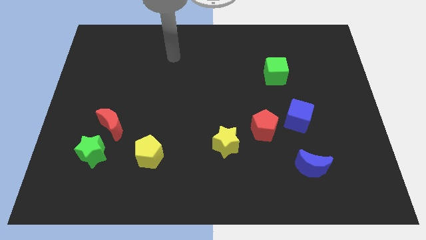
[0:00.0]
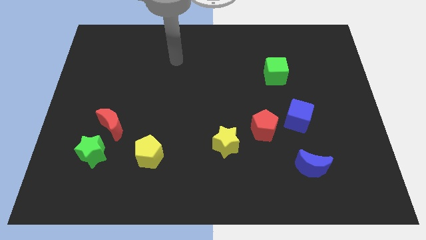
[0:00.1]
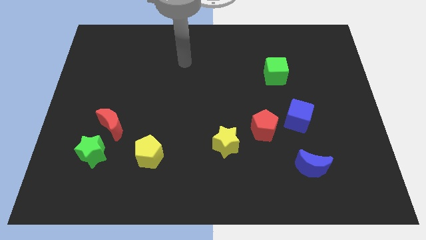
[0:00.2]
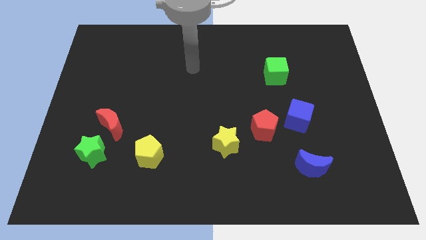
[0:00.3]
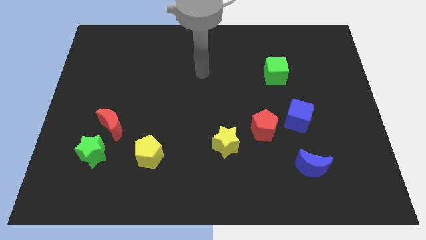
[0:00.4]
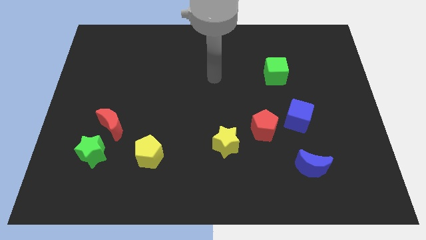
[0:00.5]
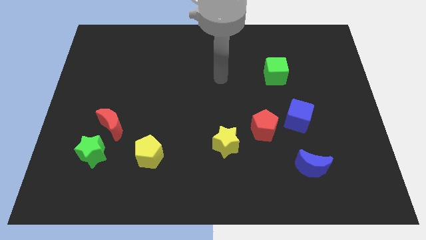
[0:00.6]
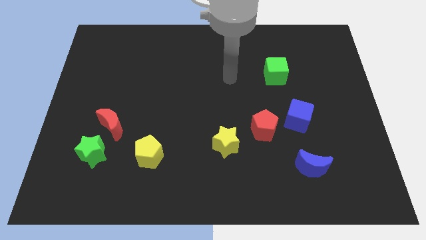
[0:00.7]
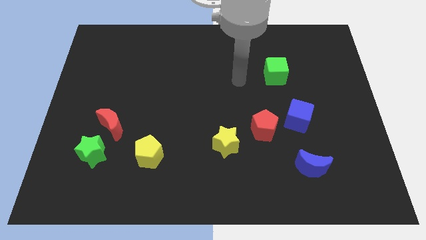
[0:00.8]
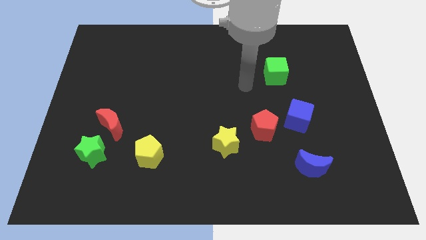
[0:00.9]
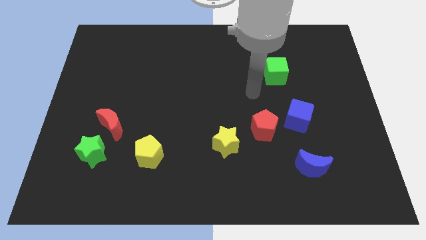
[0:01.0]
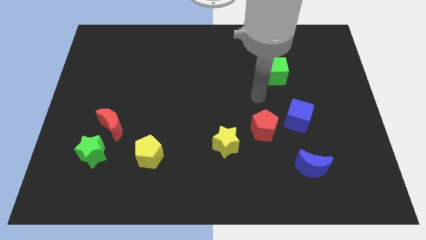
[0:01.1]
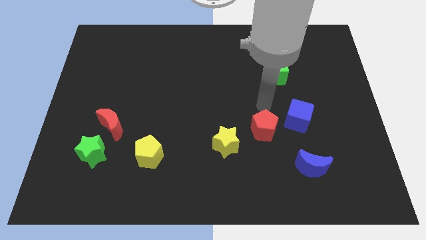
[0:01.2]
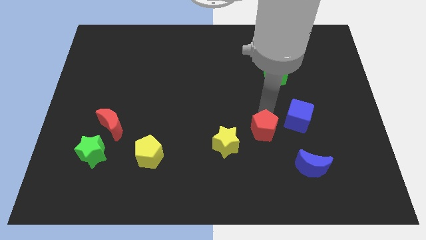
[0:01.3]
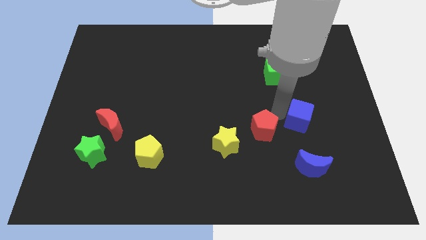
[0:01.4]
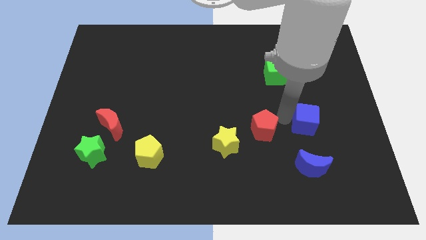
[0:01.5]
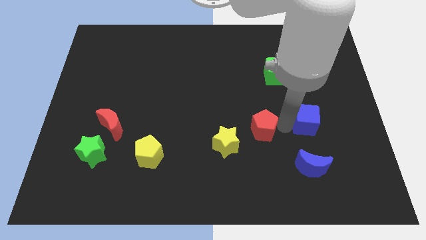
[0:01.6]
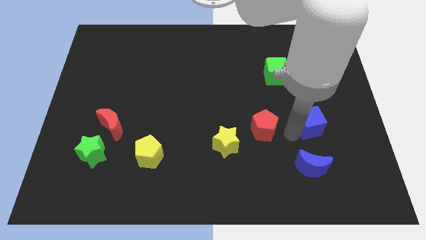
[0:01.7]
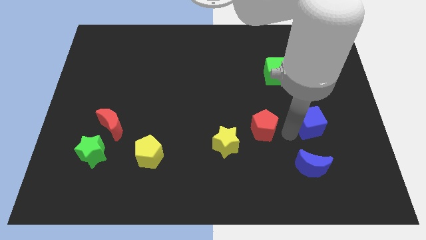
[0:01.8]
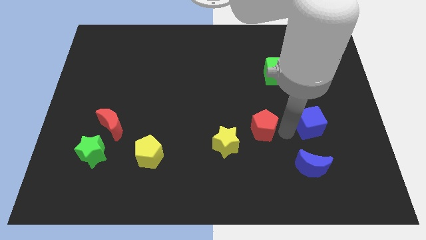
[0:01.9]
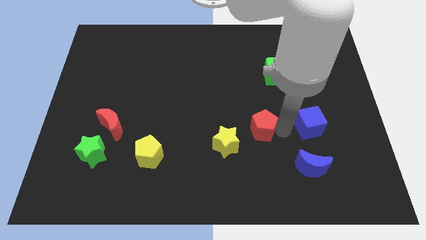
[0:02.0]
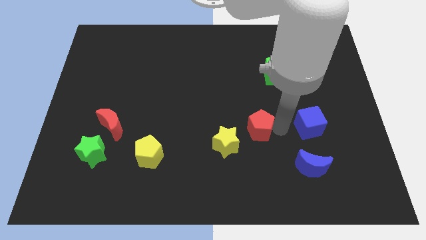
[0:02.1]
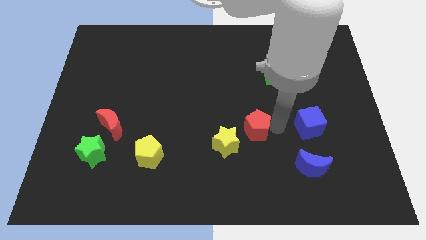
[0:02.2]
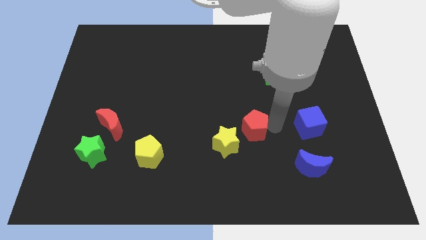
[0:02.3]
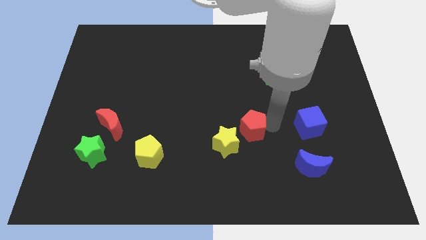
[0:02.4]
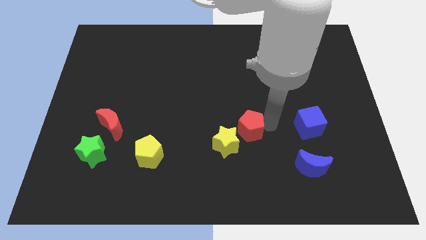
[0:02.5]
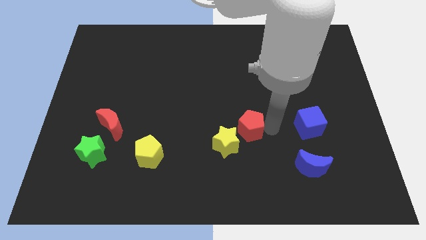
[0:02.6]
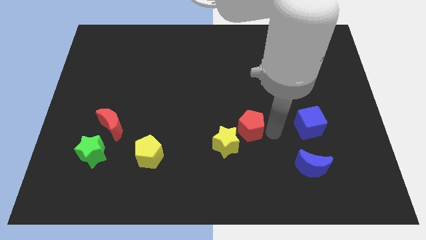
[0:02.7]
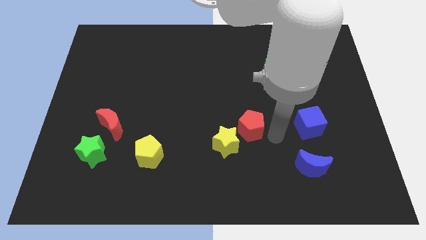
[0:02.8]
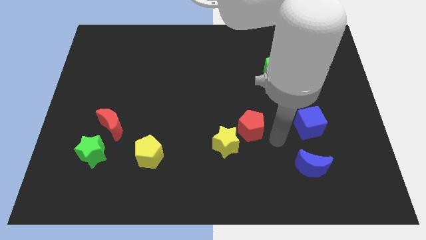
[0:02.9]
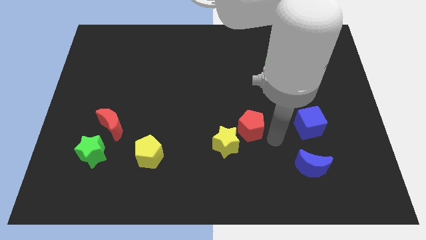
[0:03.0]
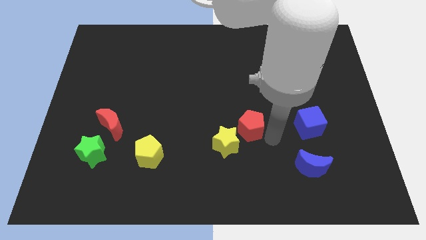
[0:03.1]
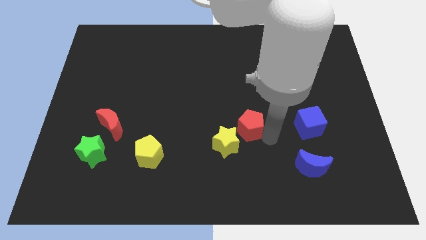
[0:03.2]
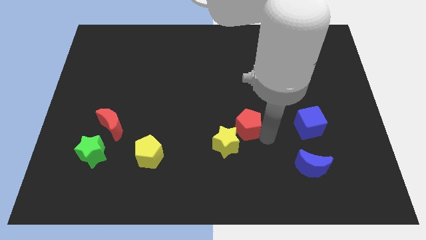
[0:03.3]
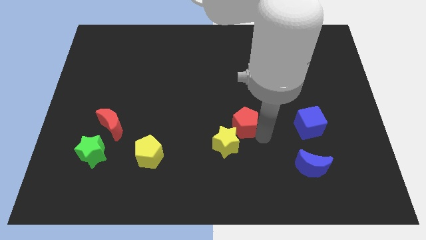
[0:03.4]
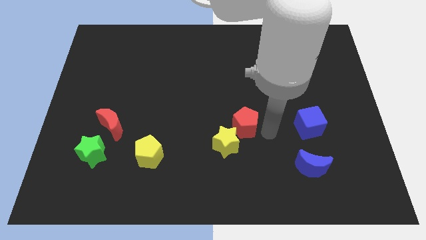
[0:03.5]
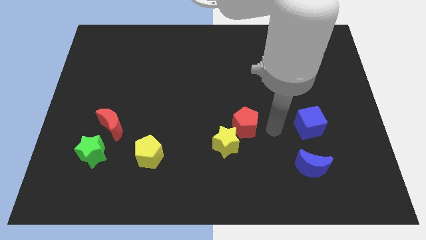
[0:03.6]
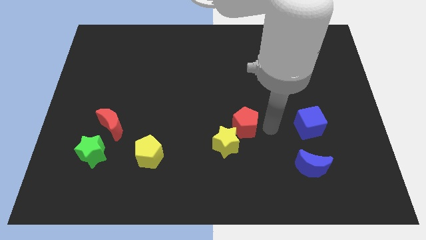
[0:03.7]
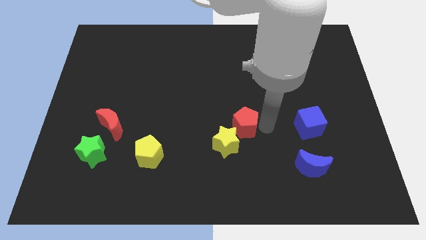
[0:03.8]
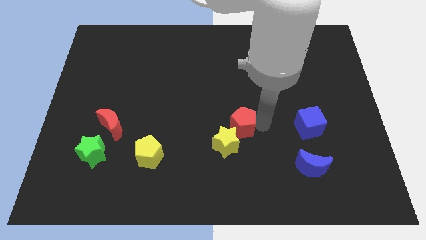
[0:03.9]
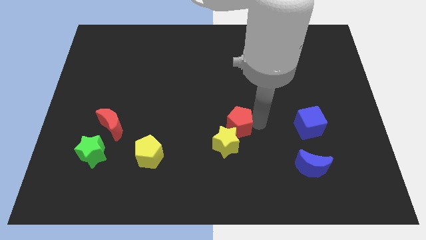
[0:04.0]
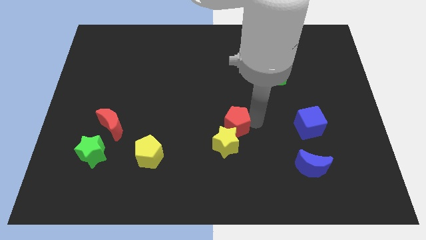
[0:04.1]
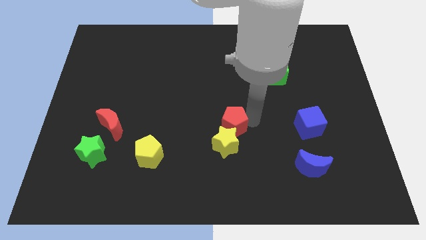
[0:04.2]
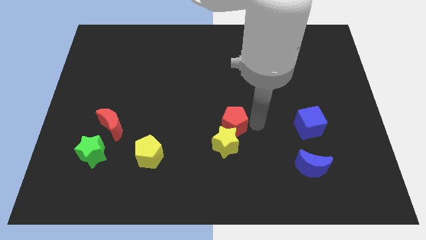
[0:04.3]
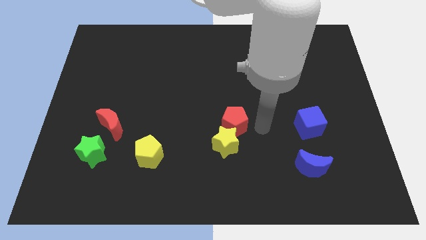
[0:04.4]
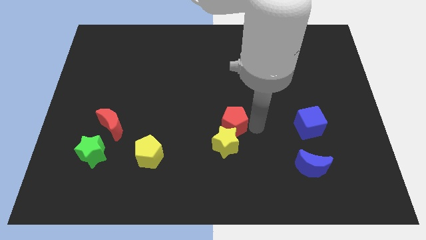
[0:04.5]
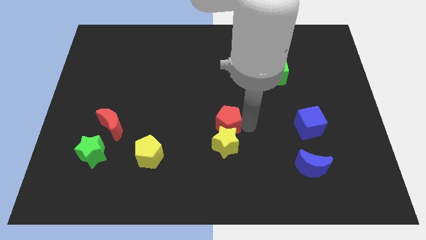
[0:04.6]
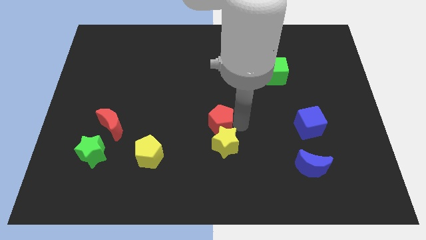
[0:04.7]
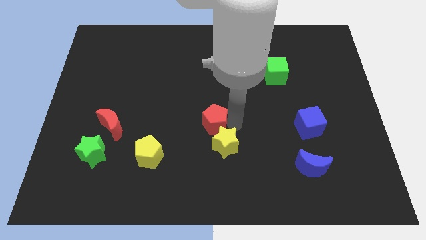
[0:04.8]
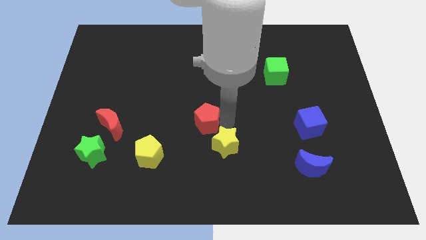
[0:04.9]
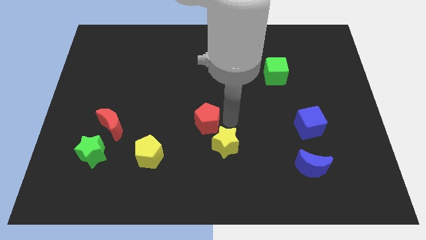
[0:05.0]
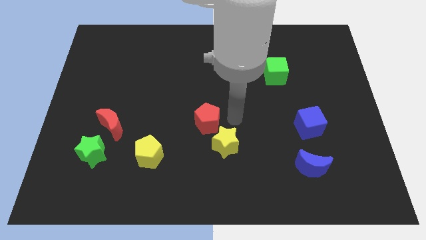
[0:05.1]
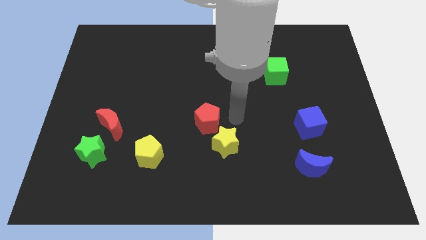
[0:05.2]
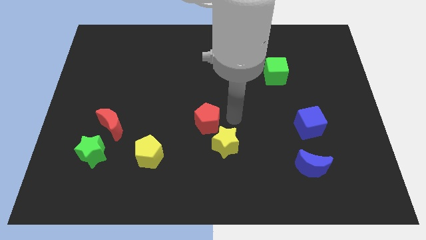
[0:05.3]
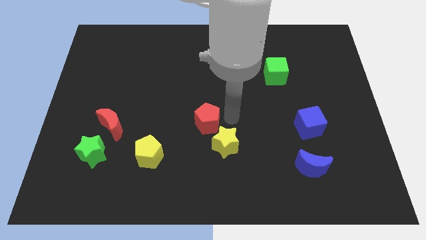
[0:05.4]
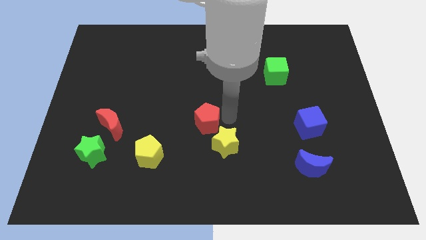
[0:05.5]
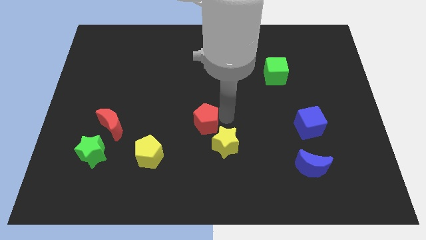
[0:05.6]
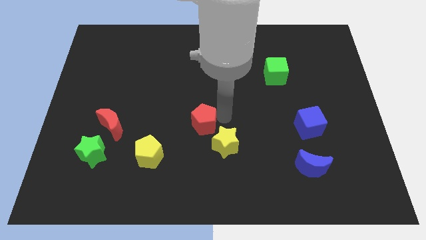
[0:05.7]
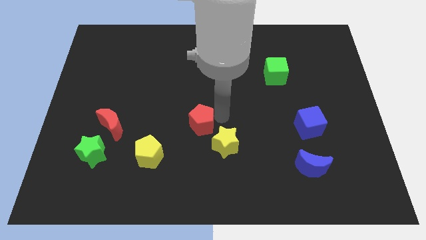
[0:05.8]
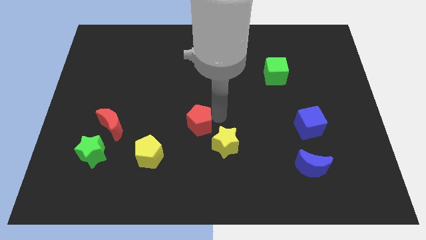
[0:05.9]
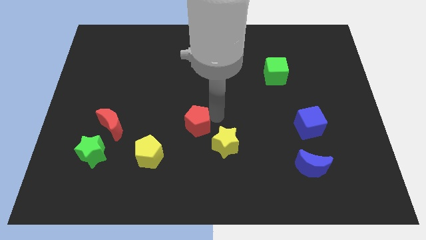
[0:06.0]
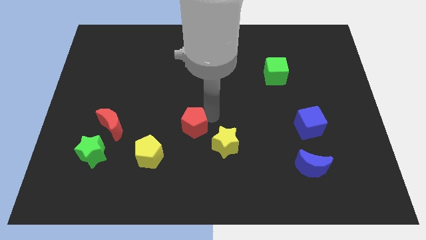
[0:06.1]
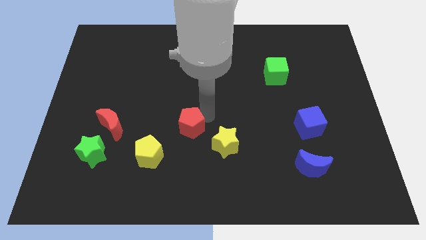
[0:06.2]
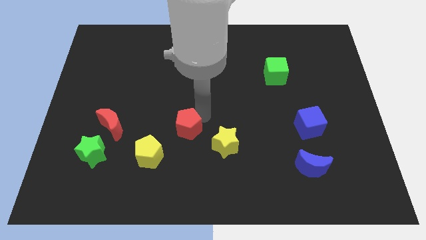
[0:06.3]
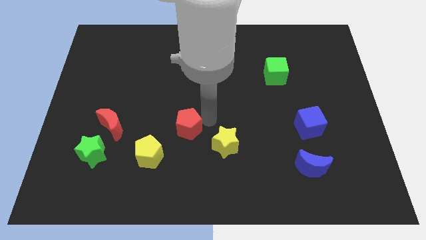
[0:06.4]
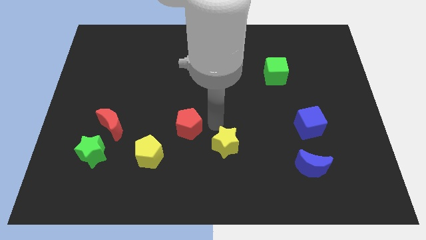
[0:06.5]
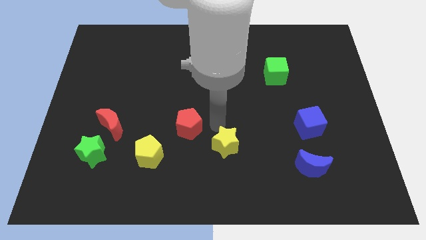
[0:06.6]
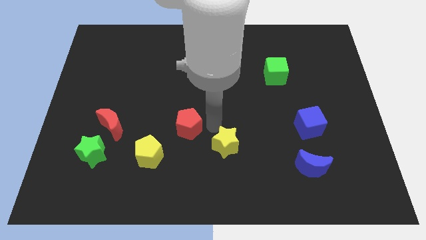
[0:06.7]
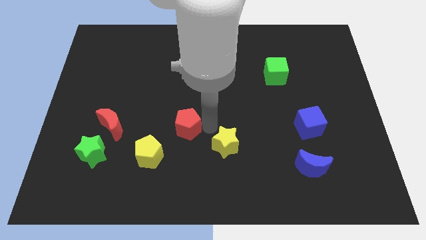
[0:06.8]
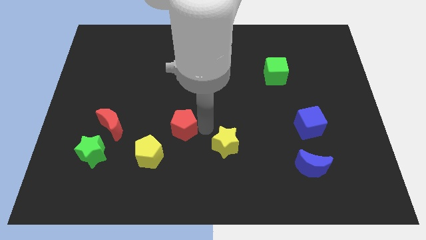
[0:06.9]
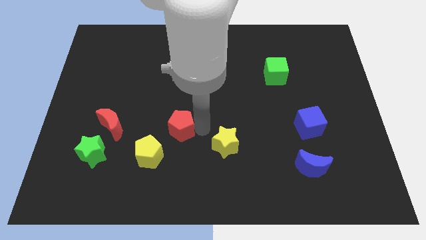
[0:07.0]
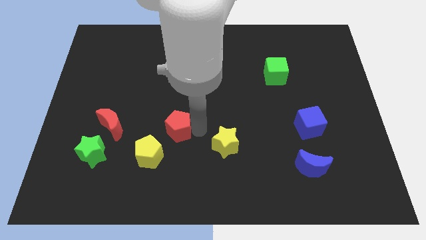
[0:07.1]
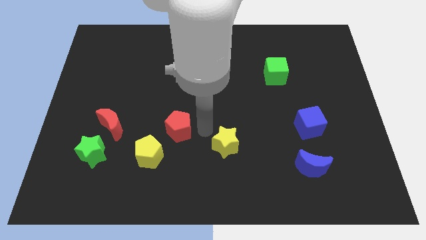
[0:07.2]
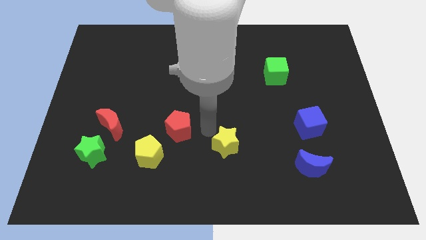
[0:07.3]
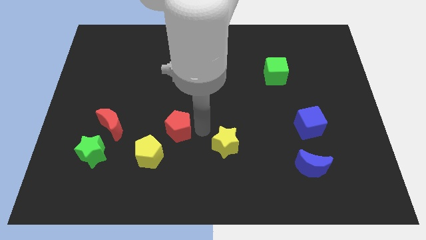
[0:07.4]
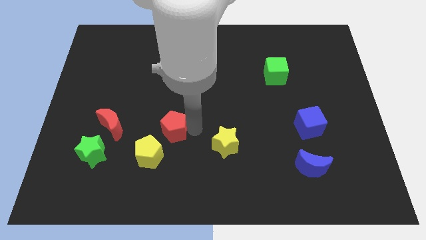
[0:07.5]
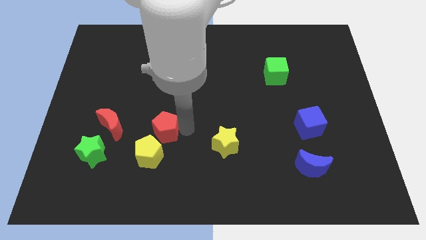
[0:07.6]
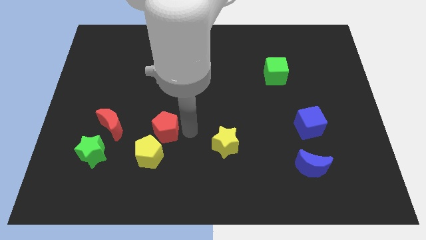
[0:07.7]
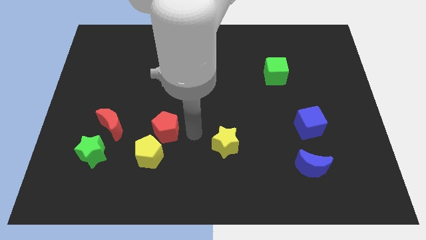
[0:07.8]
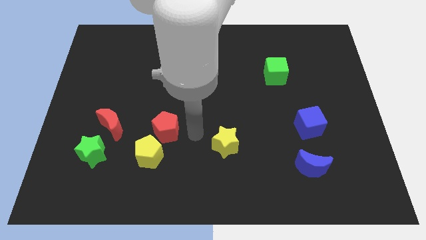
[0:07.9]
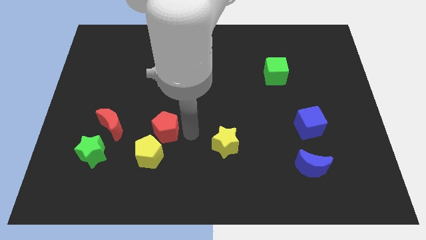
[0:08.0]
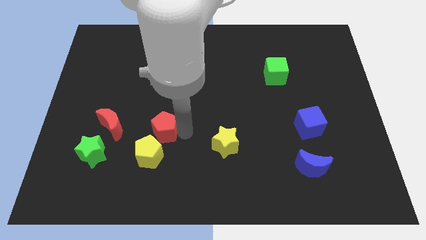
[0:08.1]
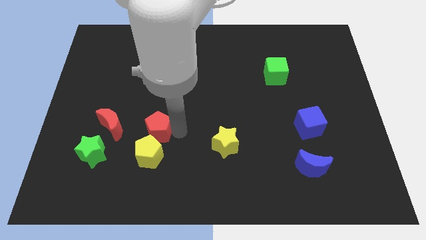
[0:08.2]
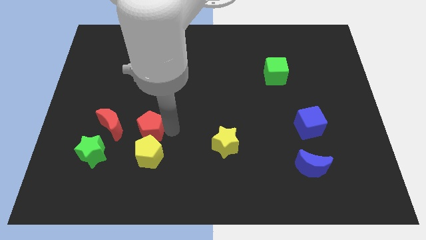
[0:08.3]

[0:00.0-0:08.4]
push the red pentagon diagonally up and to the left of the yellow pentagon

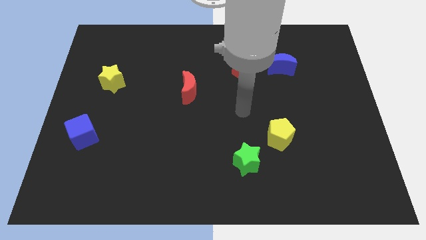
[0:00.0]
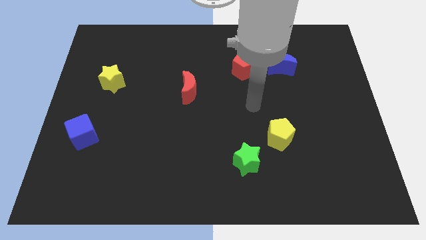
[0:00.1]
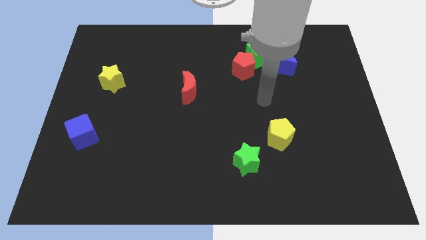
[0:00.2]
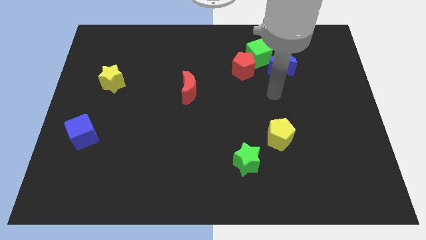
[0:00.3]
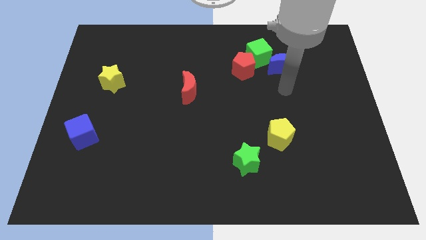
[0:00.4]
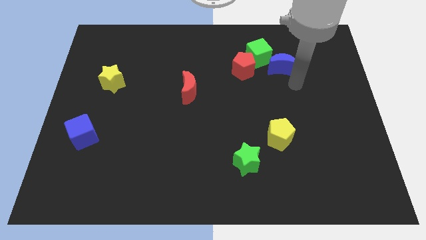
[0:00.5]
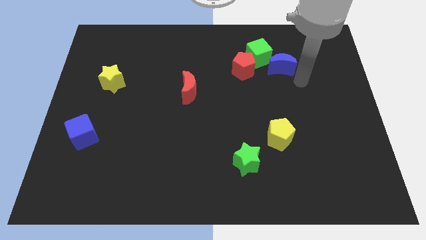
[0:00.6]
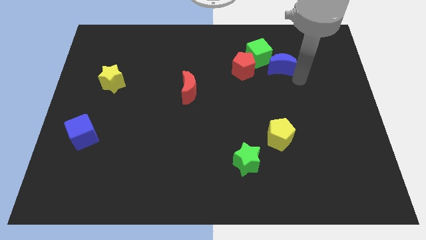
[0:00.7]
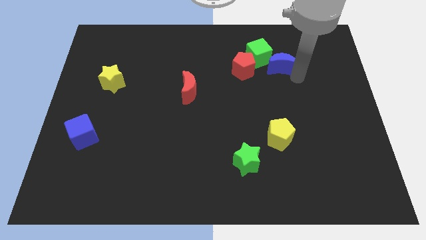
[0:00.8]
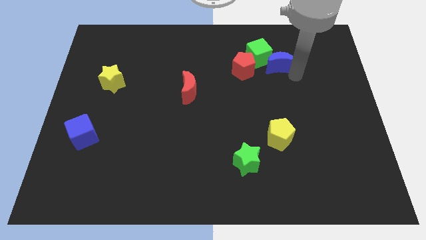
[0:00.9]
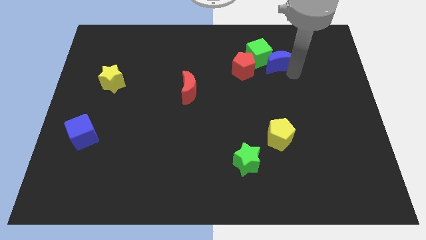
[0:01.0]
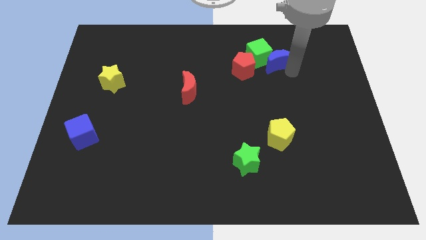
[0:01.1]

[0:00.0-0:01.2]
push the blue moon to the top right of the red pentagon
